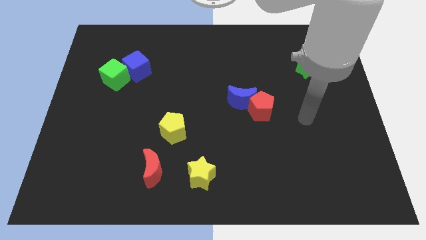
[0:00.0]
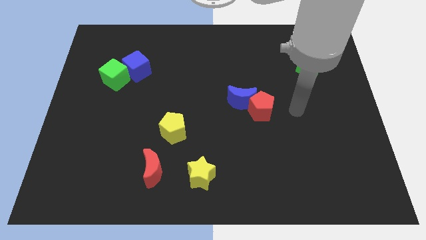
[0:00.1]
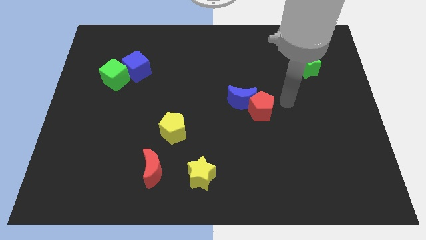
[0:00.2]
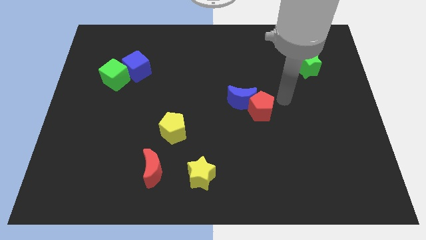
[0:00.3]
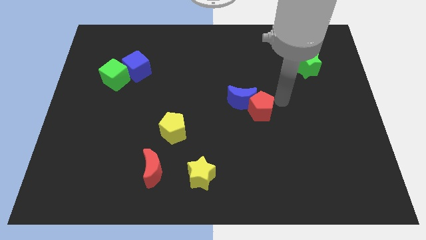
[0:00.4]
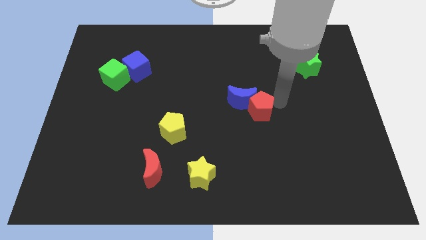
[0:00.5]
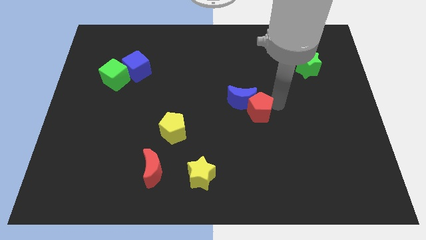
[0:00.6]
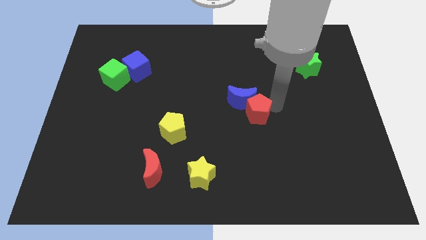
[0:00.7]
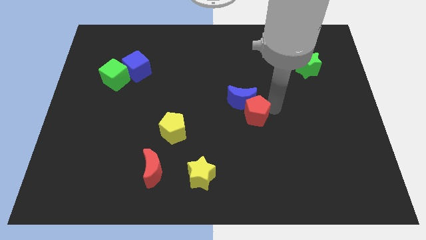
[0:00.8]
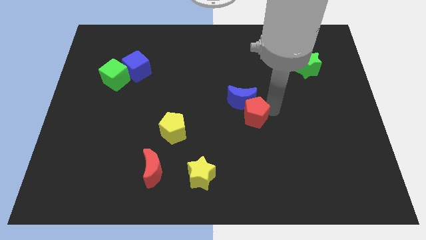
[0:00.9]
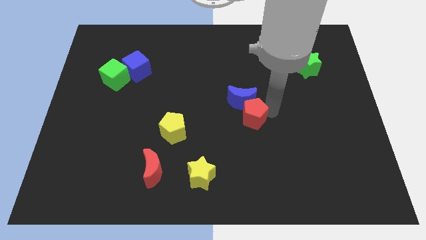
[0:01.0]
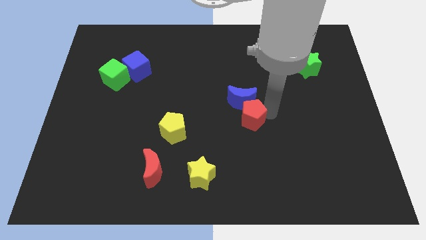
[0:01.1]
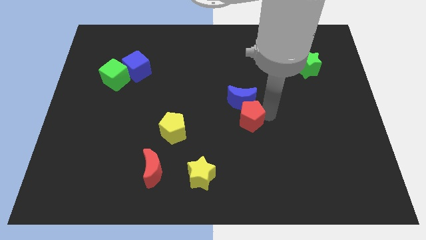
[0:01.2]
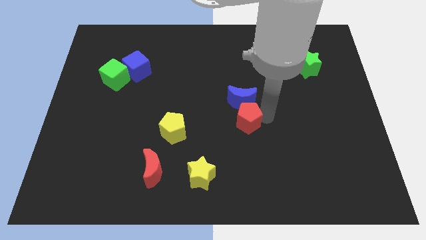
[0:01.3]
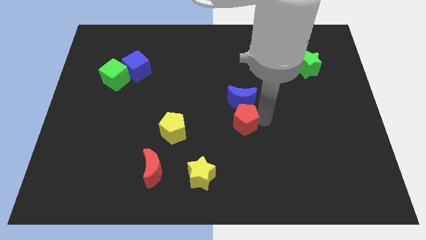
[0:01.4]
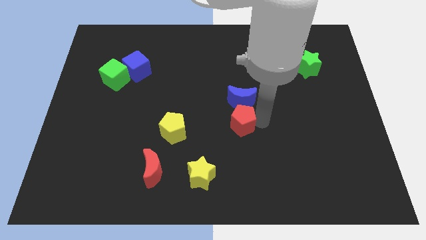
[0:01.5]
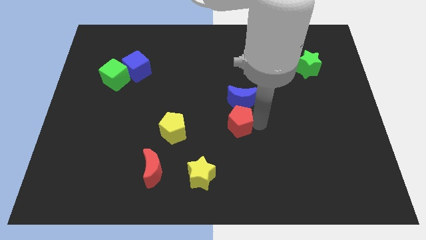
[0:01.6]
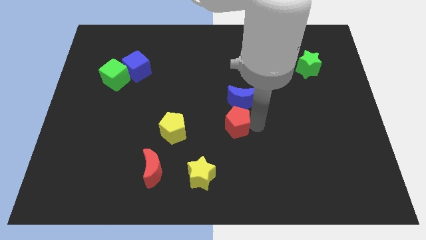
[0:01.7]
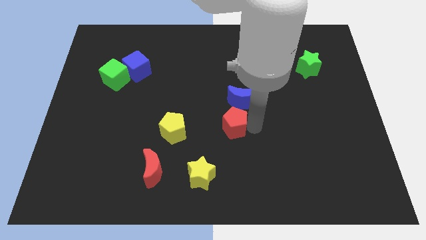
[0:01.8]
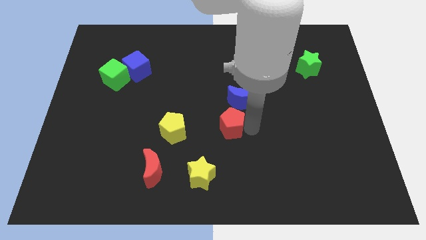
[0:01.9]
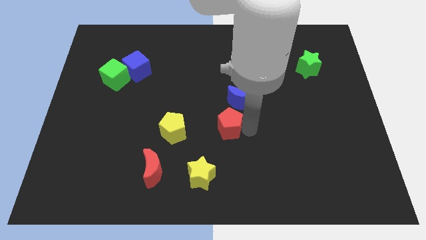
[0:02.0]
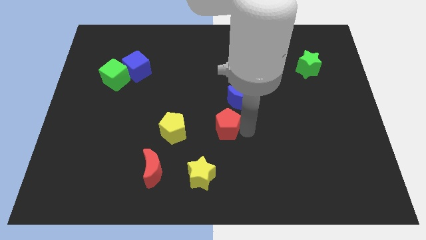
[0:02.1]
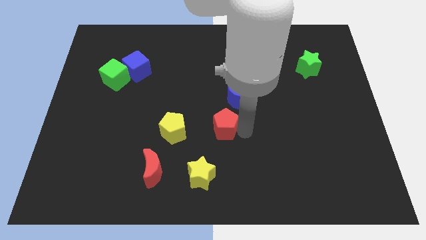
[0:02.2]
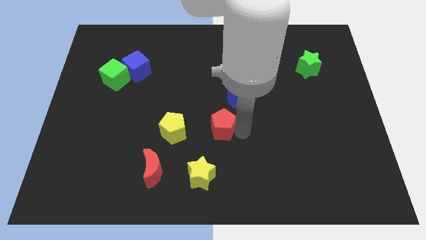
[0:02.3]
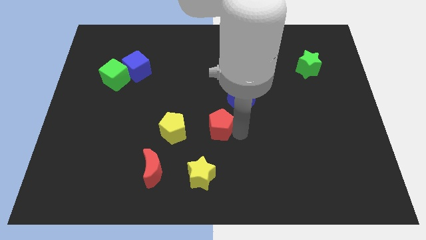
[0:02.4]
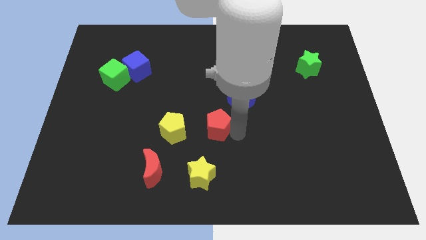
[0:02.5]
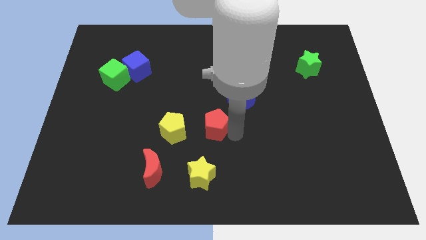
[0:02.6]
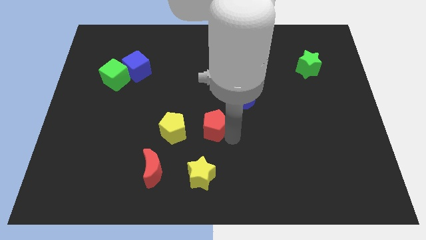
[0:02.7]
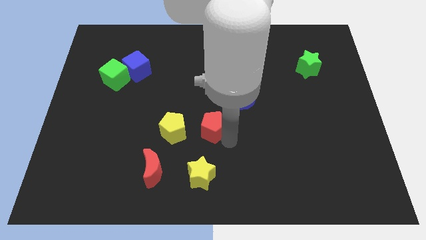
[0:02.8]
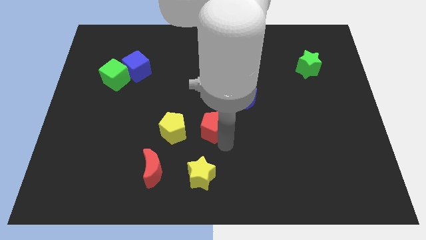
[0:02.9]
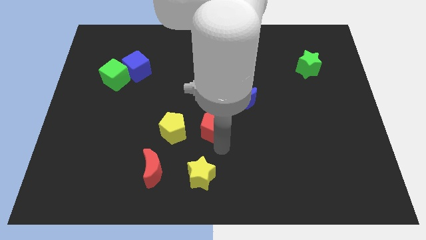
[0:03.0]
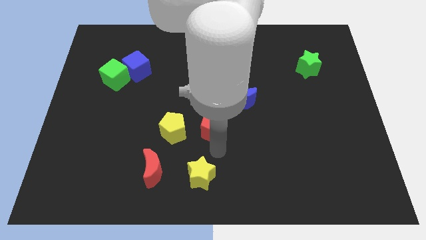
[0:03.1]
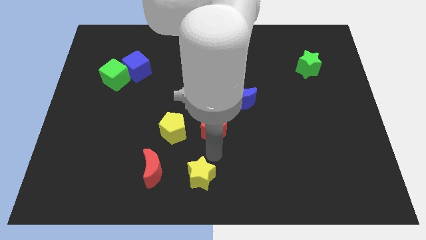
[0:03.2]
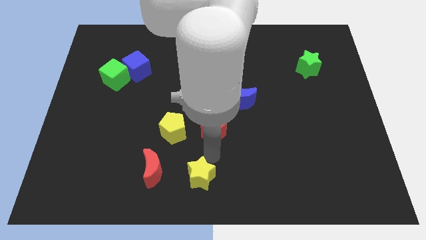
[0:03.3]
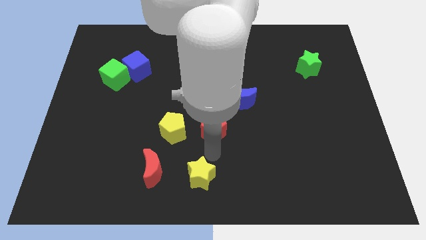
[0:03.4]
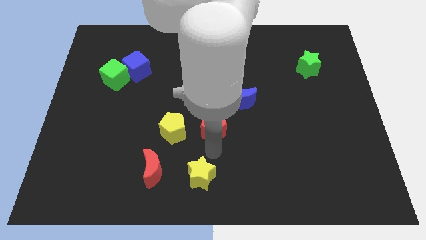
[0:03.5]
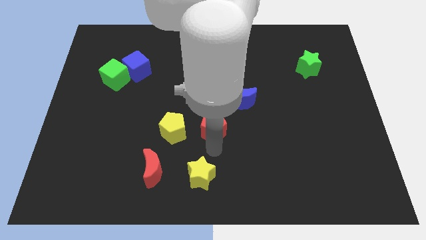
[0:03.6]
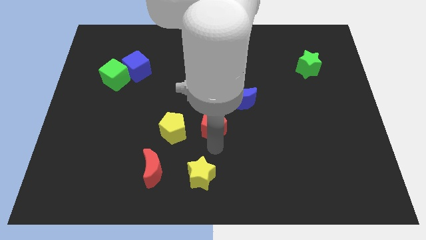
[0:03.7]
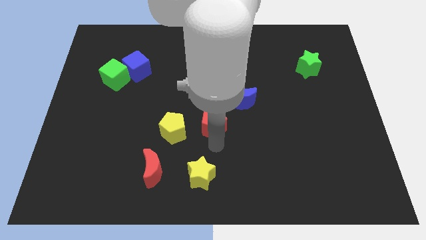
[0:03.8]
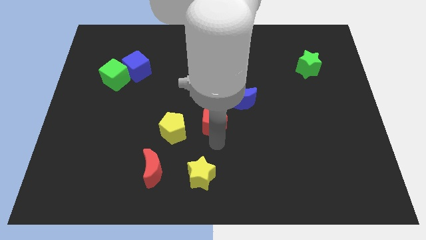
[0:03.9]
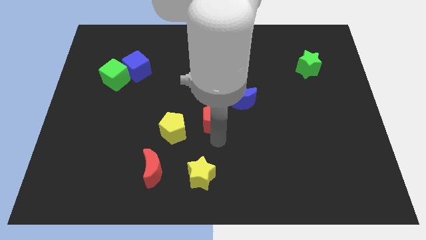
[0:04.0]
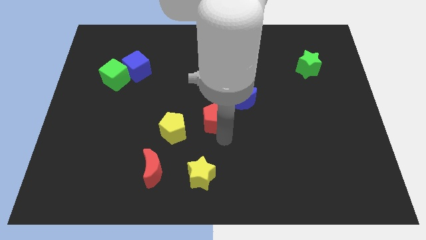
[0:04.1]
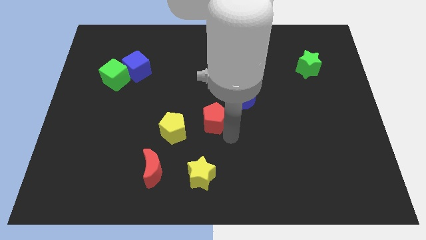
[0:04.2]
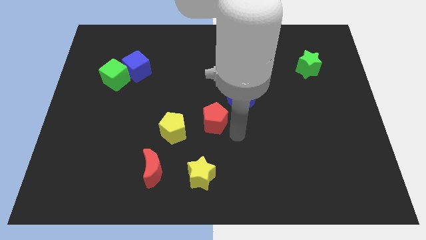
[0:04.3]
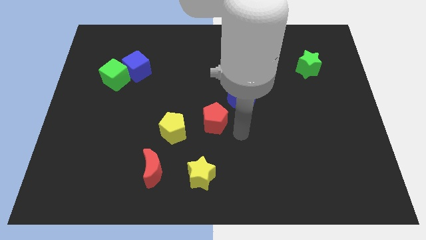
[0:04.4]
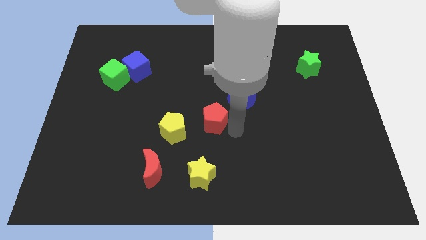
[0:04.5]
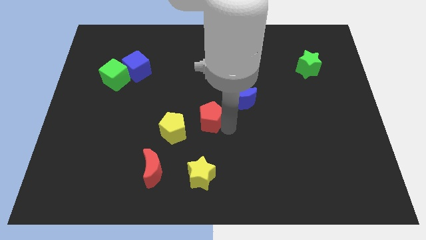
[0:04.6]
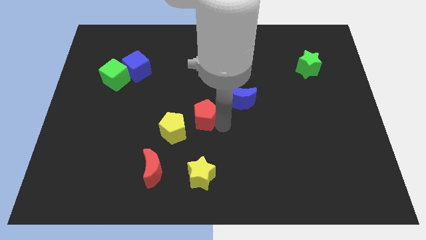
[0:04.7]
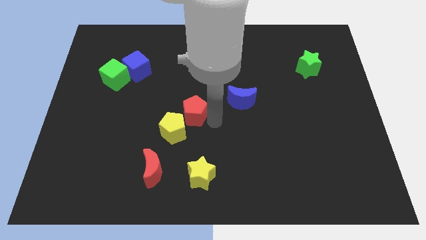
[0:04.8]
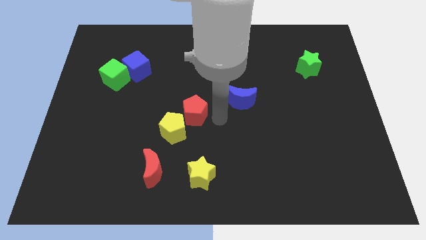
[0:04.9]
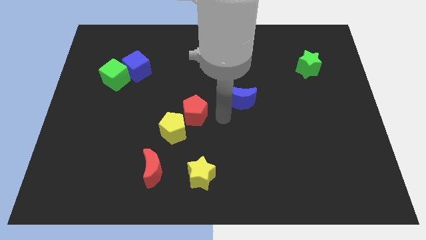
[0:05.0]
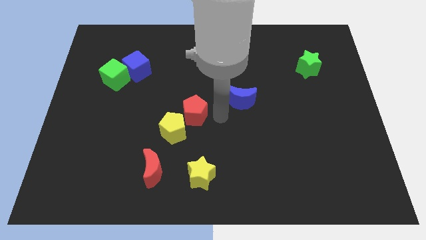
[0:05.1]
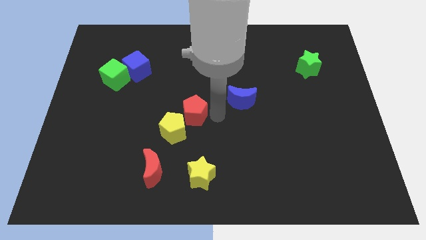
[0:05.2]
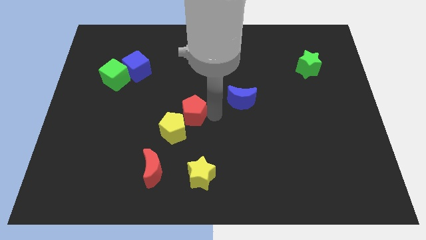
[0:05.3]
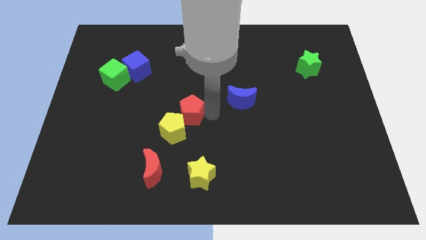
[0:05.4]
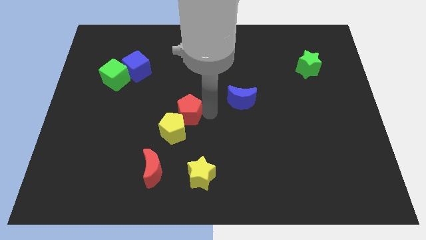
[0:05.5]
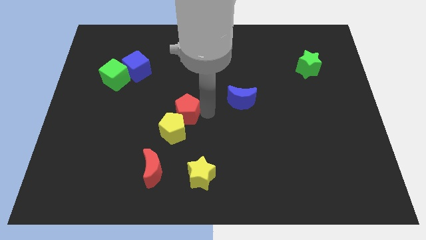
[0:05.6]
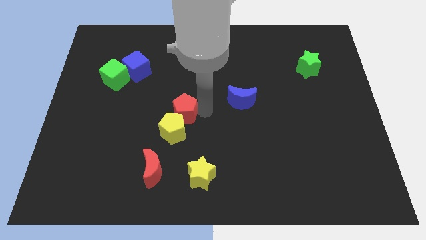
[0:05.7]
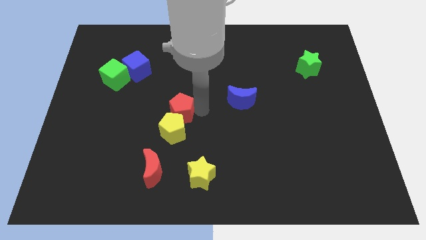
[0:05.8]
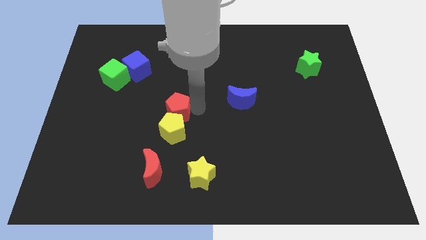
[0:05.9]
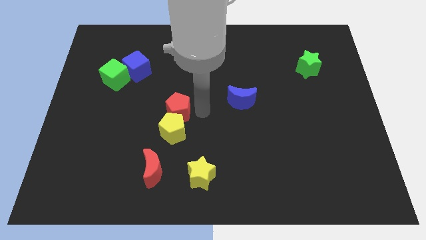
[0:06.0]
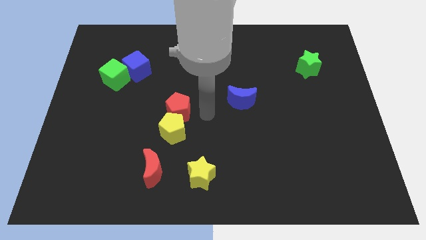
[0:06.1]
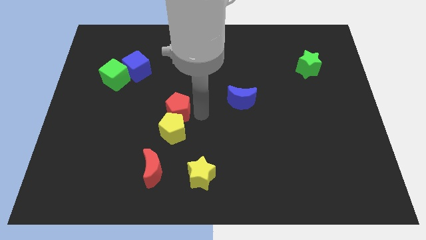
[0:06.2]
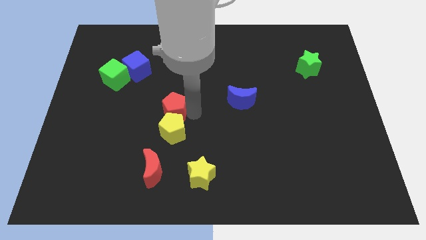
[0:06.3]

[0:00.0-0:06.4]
push the red pentagon left

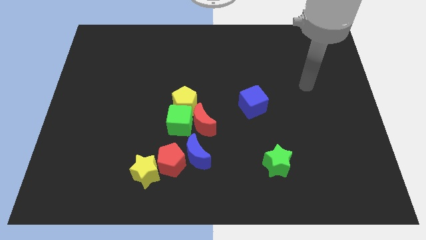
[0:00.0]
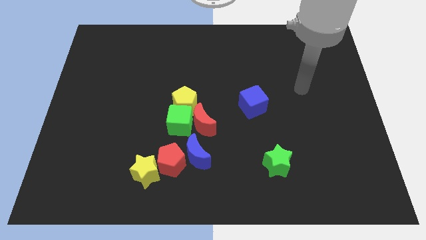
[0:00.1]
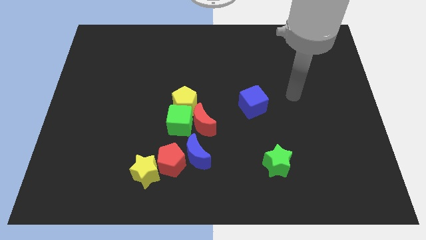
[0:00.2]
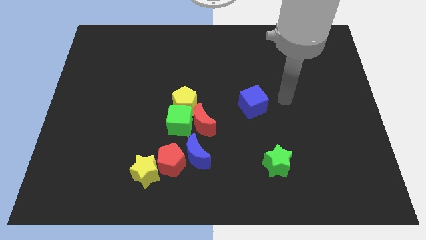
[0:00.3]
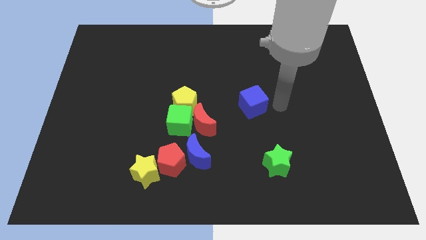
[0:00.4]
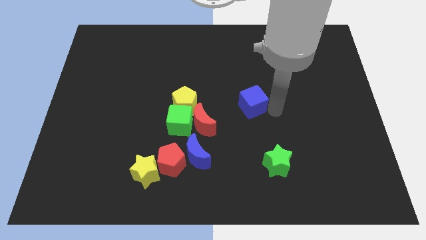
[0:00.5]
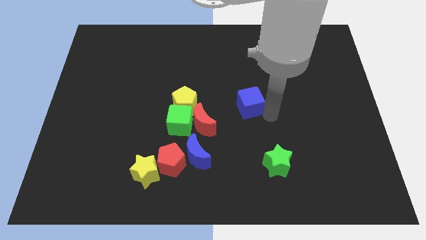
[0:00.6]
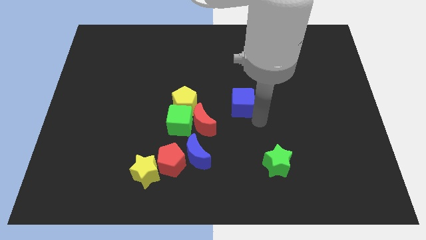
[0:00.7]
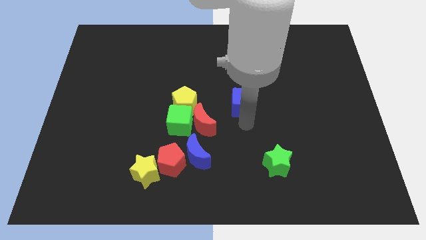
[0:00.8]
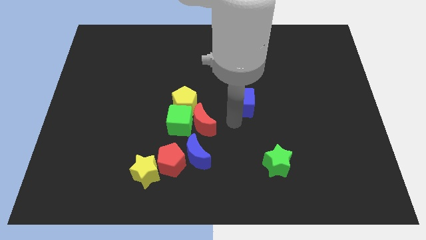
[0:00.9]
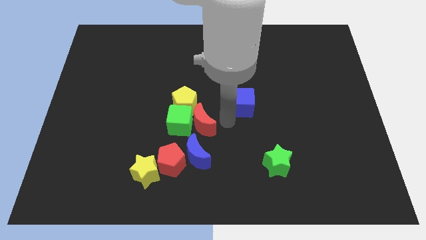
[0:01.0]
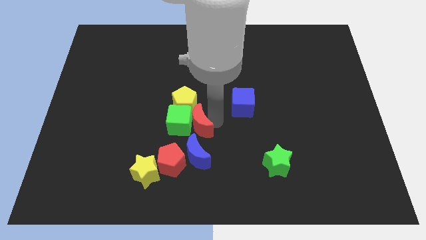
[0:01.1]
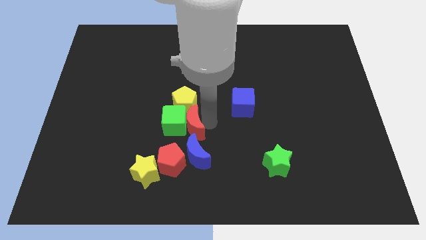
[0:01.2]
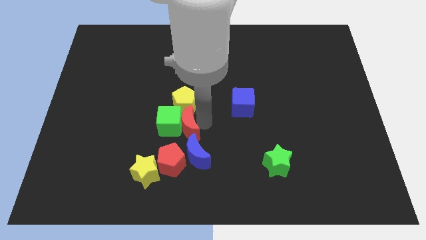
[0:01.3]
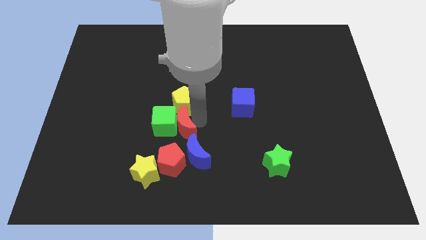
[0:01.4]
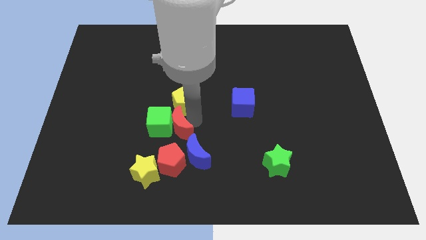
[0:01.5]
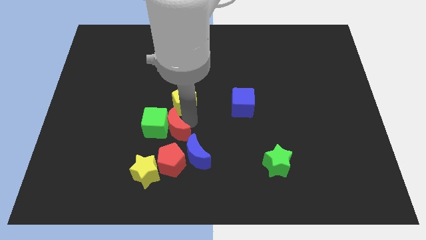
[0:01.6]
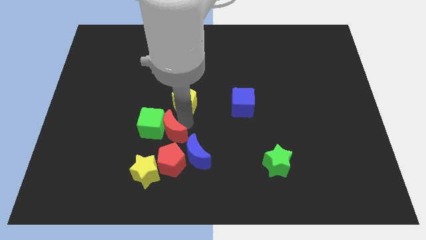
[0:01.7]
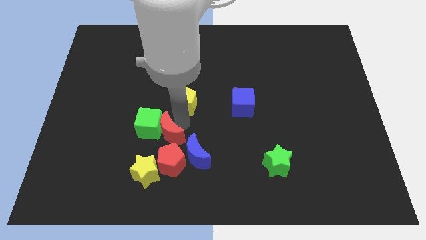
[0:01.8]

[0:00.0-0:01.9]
slightly push the green cube to the left

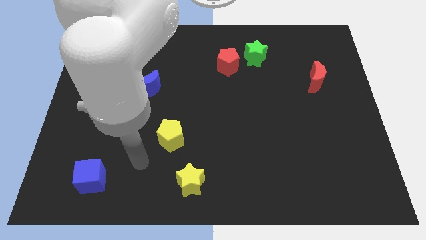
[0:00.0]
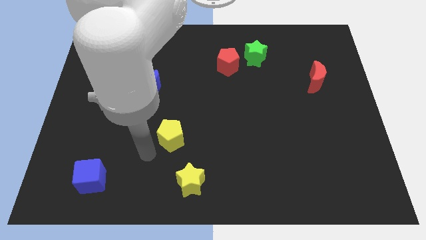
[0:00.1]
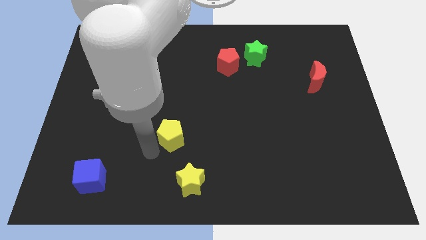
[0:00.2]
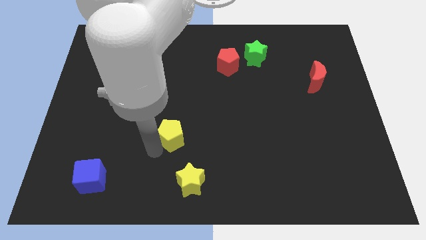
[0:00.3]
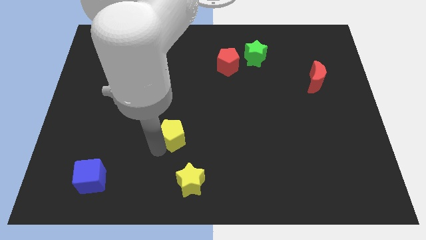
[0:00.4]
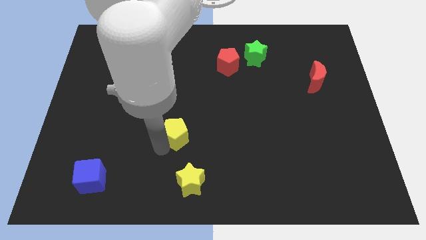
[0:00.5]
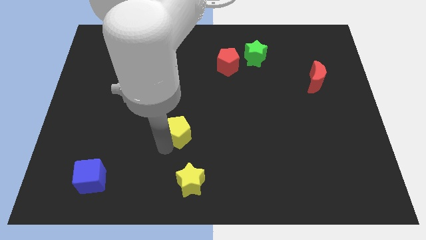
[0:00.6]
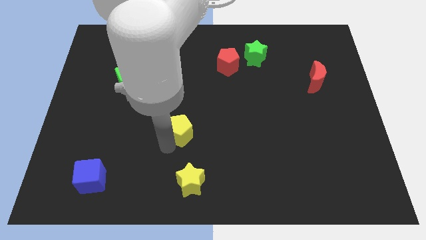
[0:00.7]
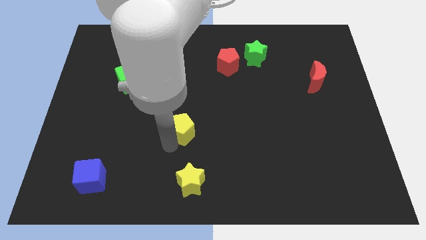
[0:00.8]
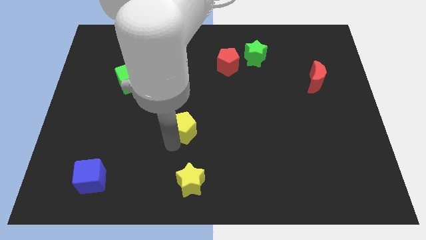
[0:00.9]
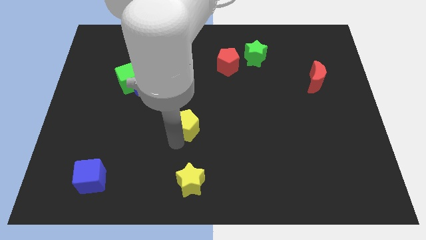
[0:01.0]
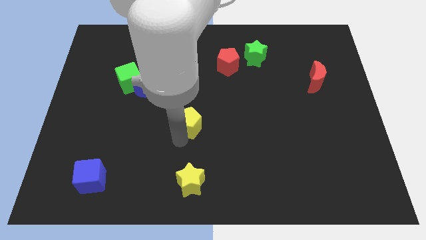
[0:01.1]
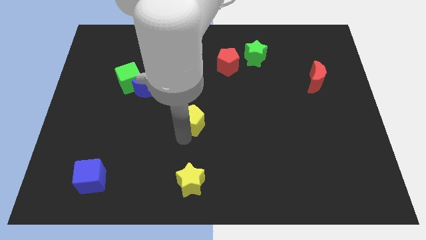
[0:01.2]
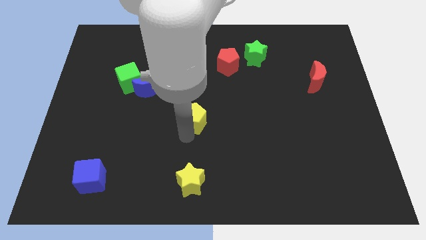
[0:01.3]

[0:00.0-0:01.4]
slide the yellow pentagon somewhat diagonally up and right
